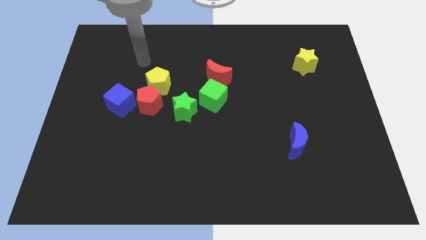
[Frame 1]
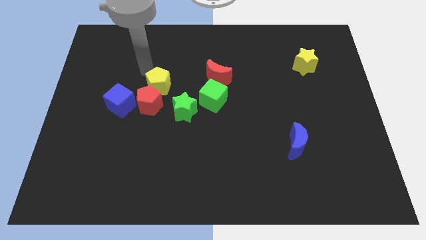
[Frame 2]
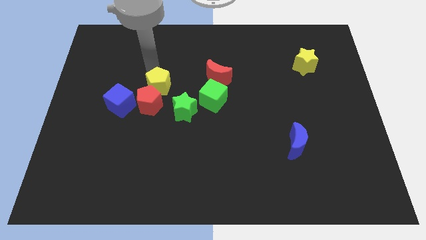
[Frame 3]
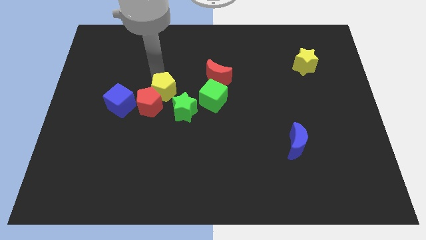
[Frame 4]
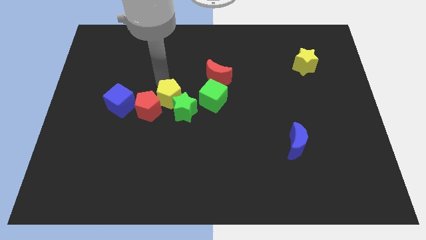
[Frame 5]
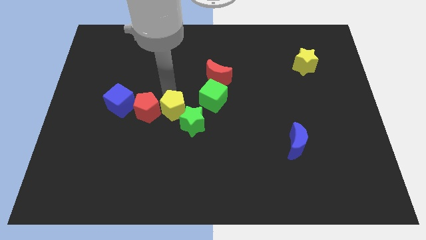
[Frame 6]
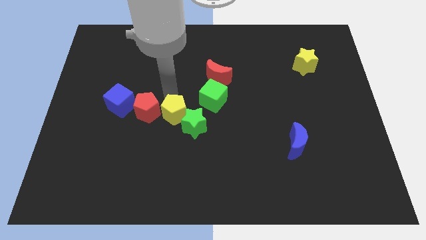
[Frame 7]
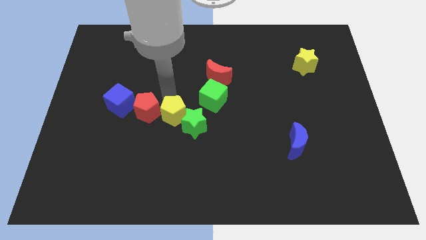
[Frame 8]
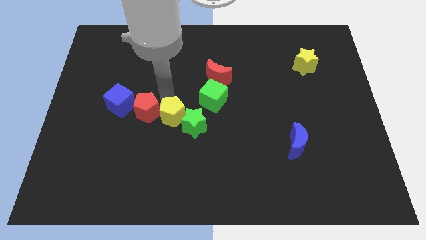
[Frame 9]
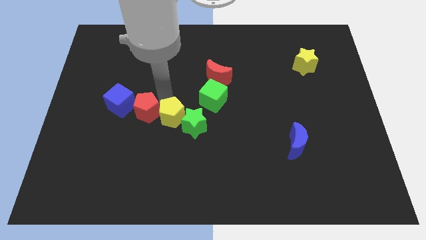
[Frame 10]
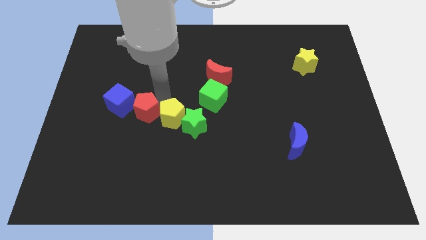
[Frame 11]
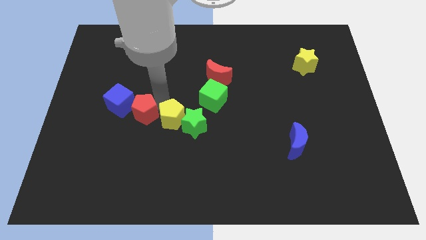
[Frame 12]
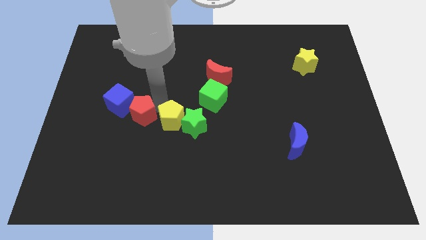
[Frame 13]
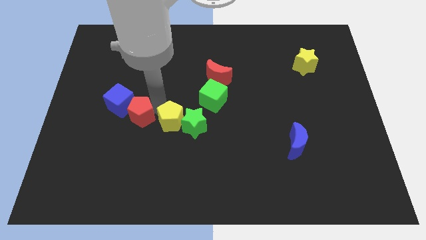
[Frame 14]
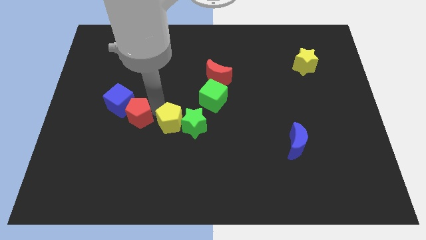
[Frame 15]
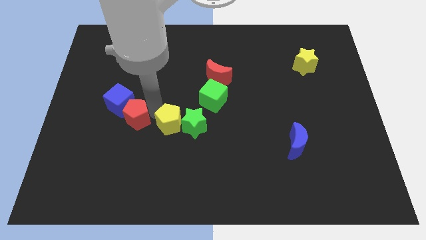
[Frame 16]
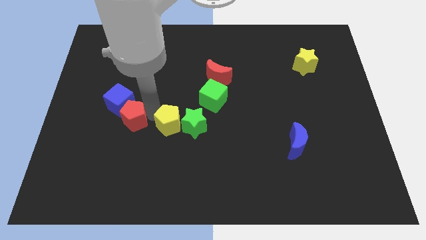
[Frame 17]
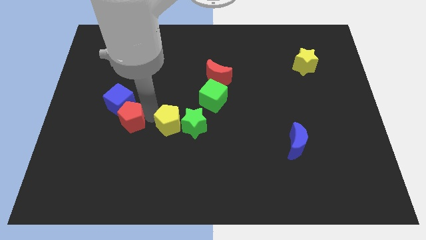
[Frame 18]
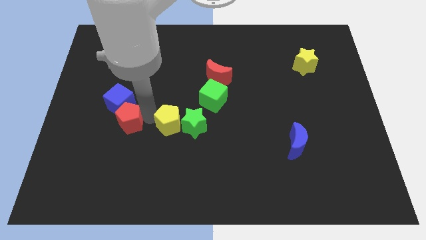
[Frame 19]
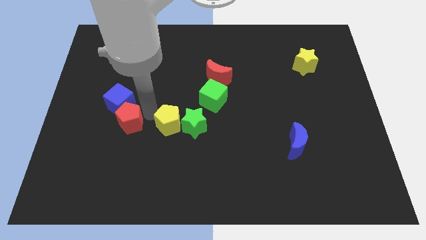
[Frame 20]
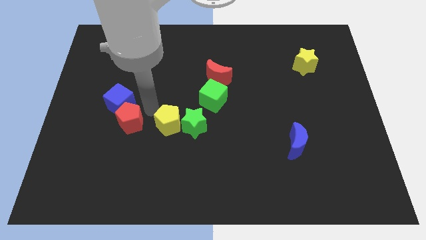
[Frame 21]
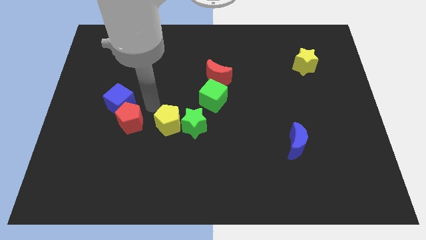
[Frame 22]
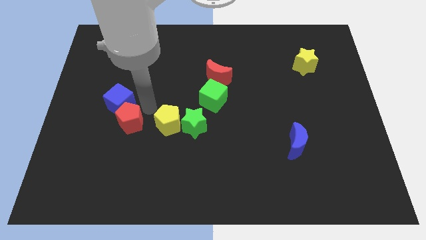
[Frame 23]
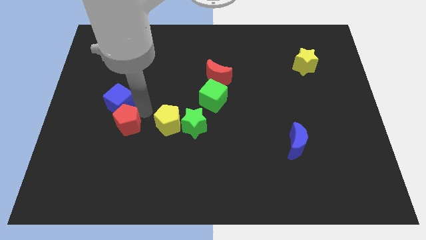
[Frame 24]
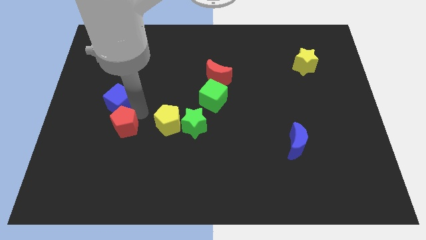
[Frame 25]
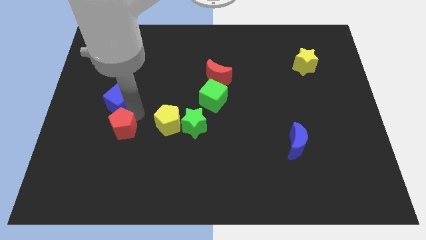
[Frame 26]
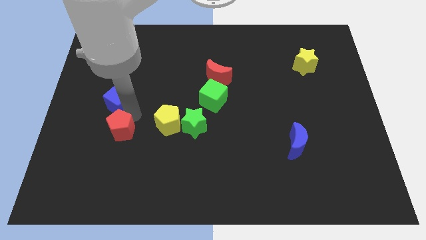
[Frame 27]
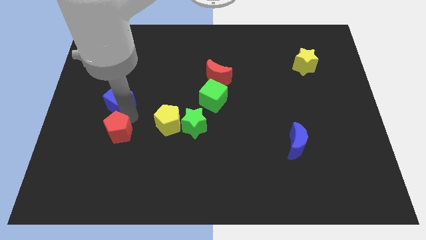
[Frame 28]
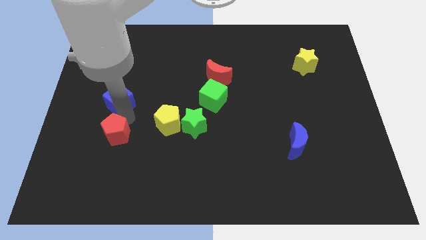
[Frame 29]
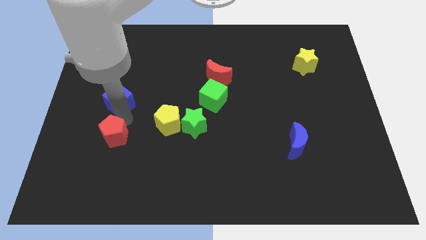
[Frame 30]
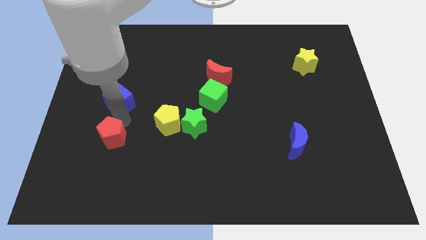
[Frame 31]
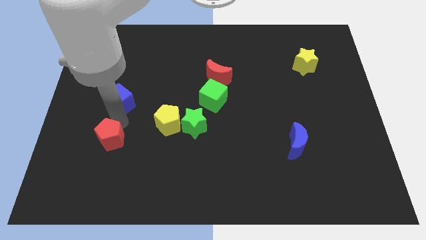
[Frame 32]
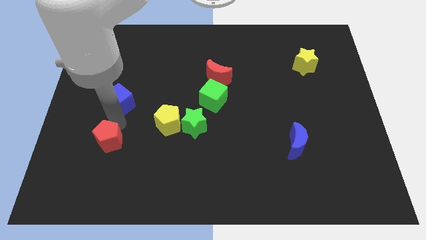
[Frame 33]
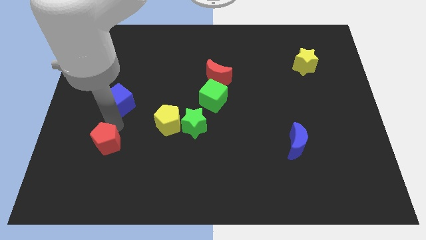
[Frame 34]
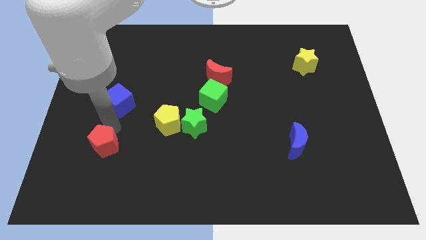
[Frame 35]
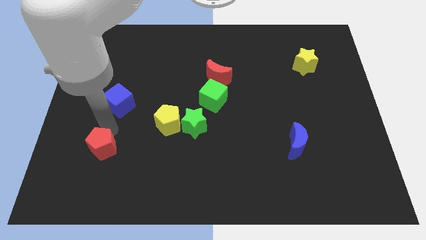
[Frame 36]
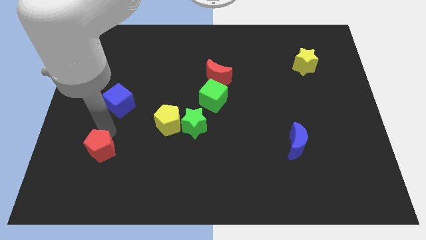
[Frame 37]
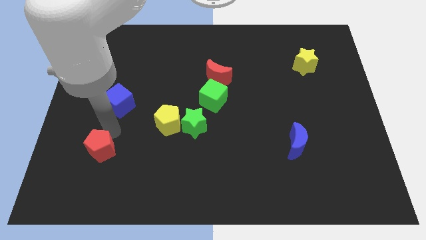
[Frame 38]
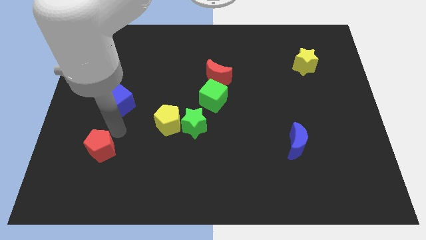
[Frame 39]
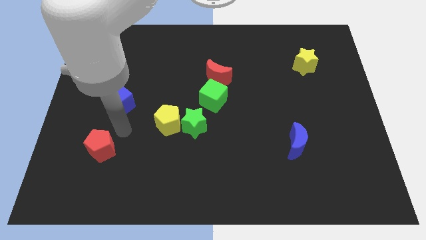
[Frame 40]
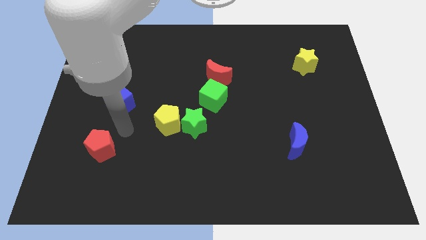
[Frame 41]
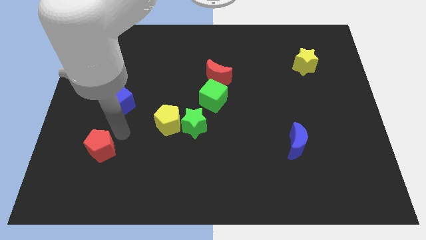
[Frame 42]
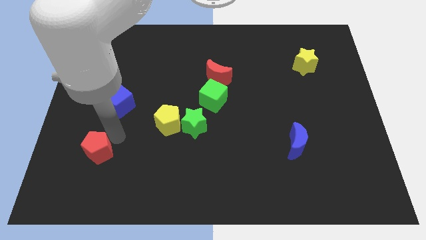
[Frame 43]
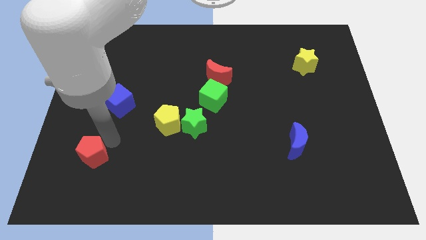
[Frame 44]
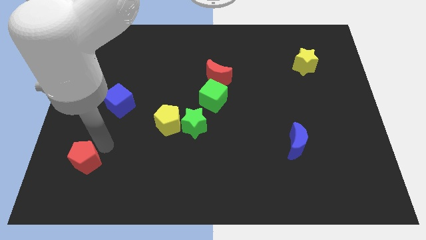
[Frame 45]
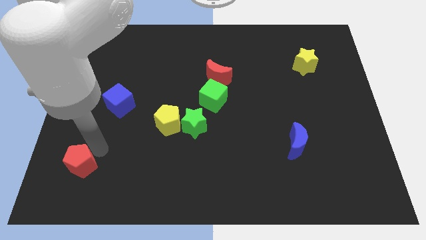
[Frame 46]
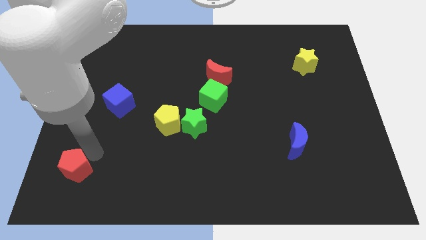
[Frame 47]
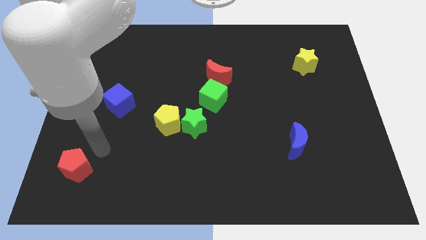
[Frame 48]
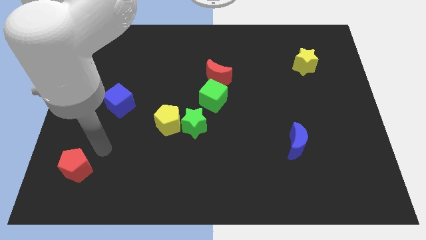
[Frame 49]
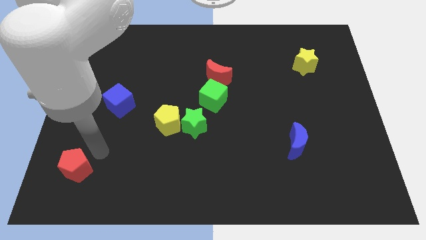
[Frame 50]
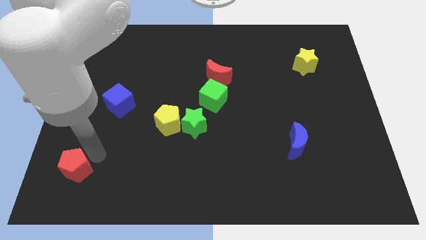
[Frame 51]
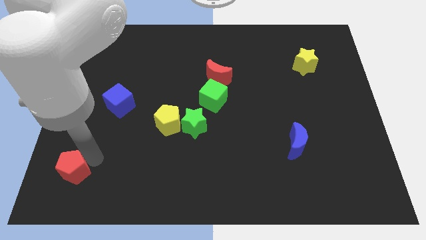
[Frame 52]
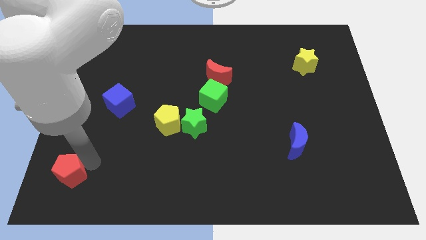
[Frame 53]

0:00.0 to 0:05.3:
slide the red pentagon to the bottom left of the board
